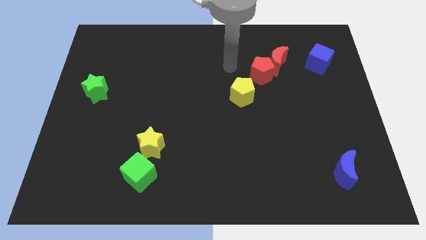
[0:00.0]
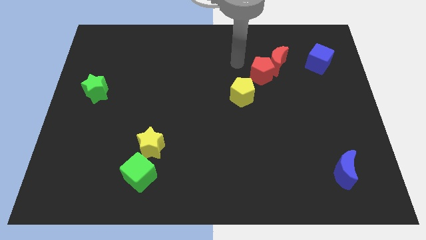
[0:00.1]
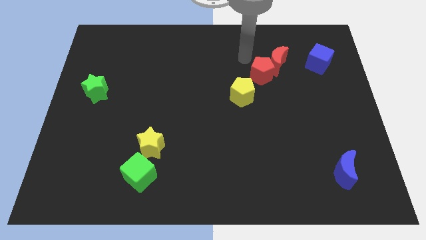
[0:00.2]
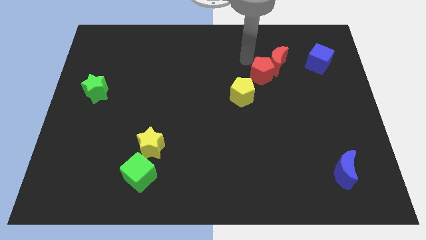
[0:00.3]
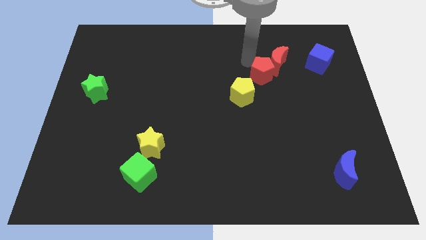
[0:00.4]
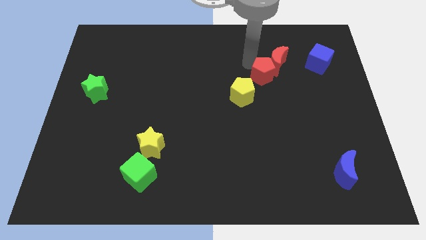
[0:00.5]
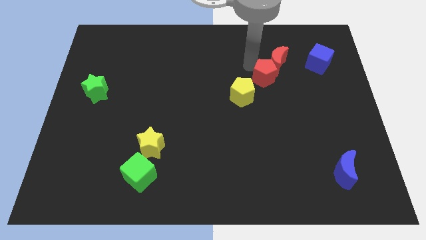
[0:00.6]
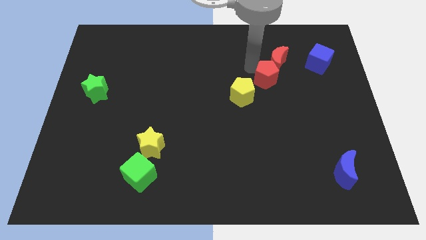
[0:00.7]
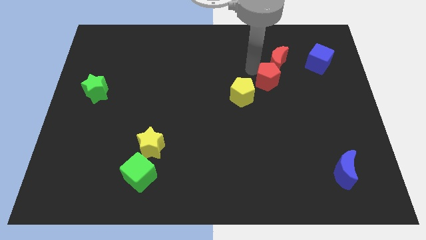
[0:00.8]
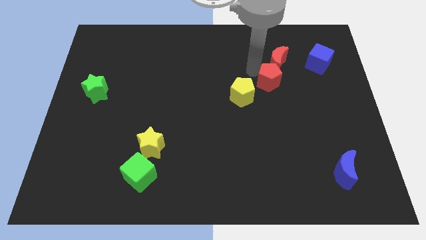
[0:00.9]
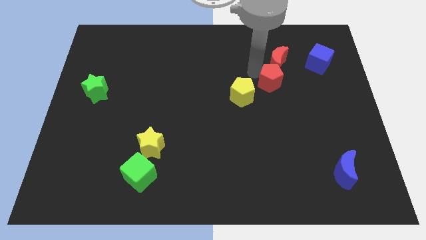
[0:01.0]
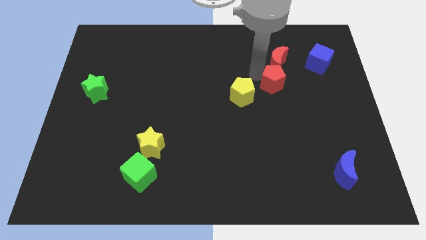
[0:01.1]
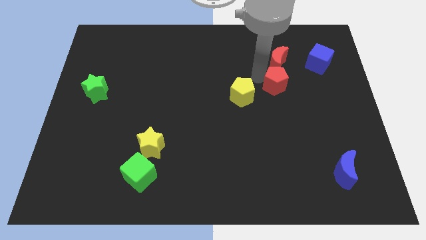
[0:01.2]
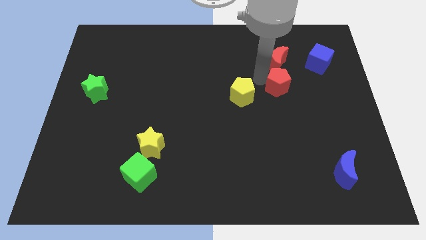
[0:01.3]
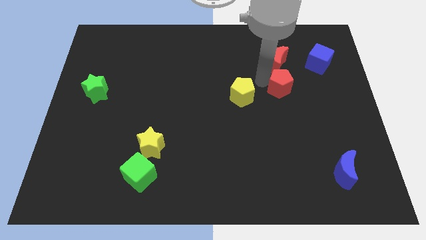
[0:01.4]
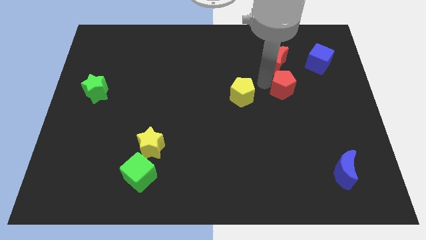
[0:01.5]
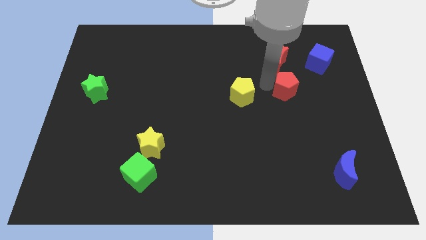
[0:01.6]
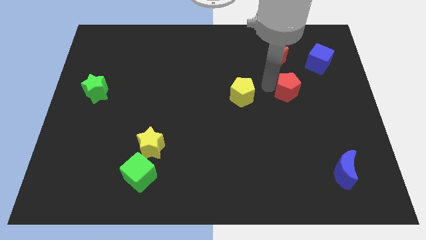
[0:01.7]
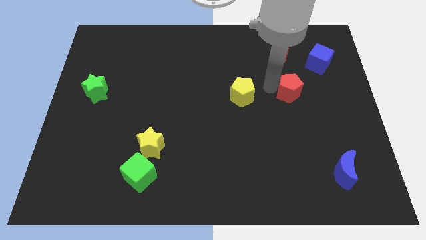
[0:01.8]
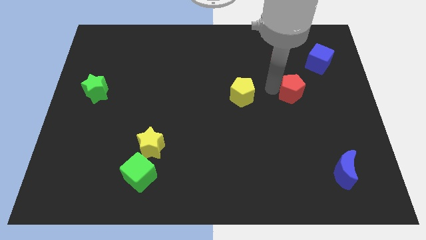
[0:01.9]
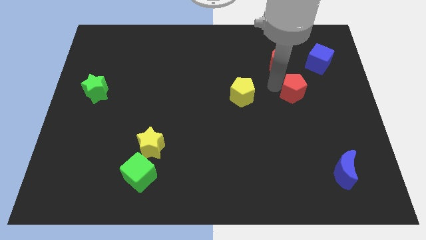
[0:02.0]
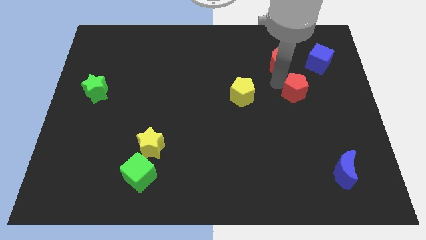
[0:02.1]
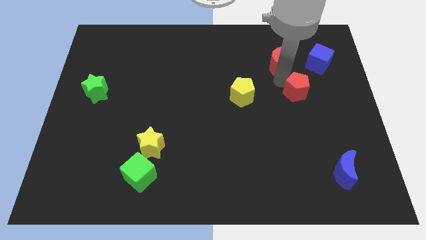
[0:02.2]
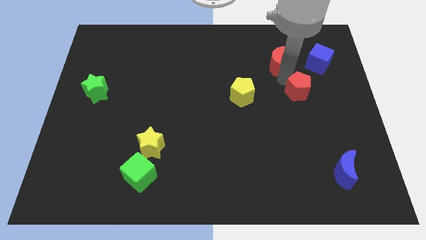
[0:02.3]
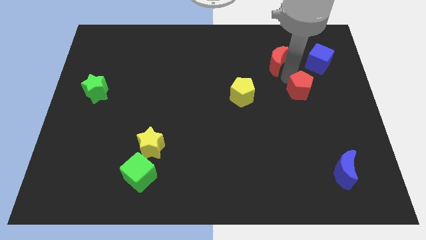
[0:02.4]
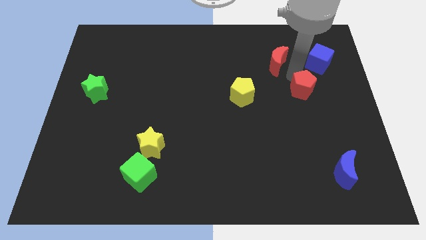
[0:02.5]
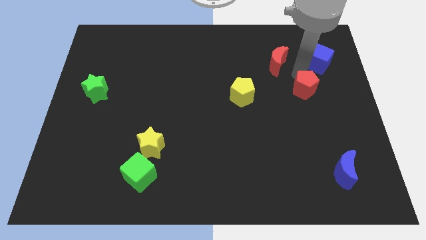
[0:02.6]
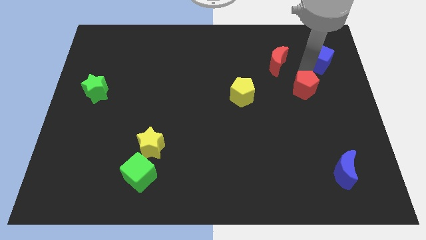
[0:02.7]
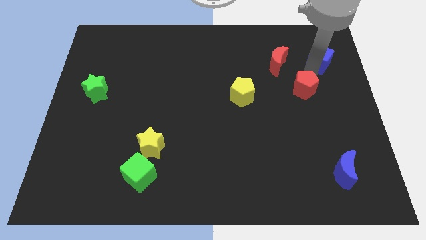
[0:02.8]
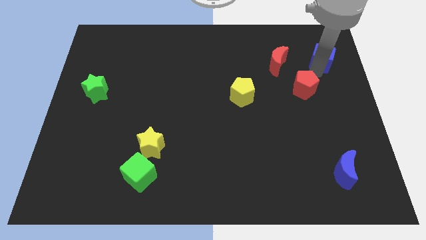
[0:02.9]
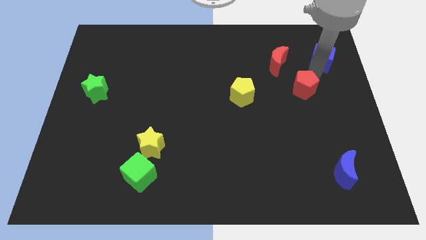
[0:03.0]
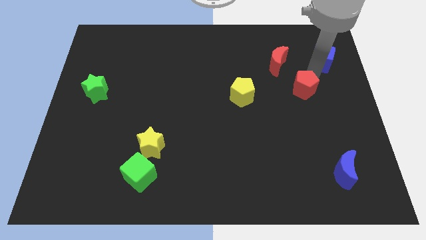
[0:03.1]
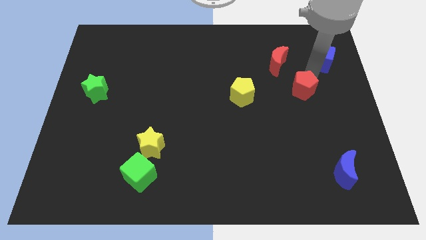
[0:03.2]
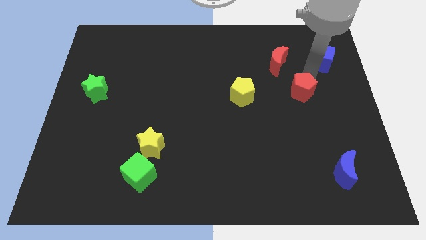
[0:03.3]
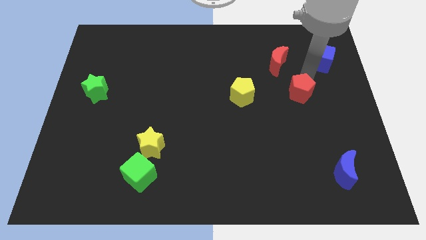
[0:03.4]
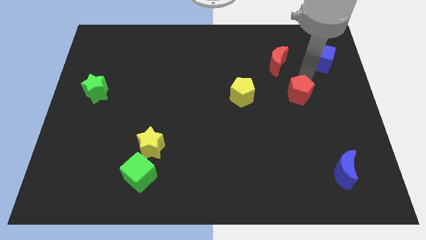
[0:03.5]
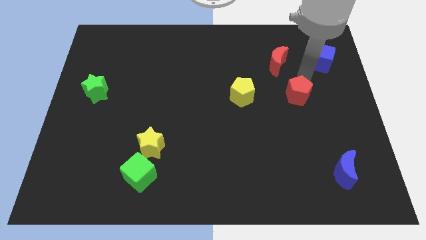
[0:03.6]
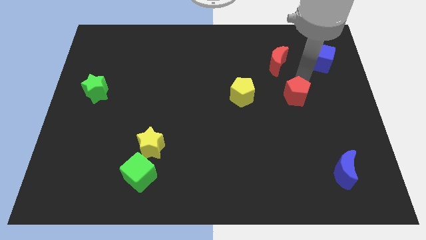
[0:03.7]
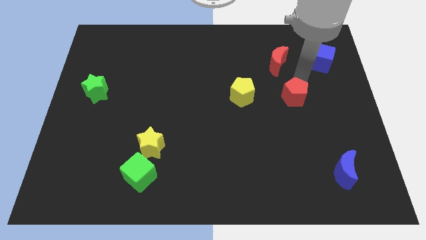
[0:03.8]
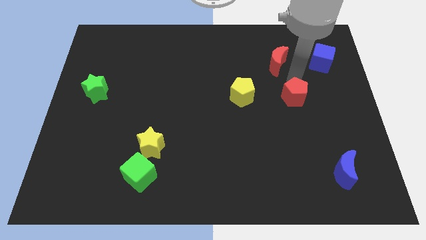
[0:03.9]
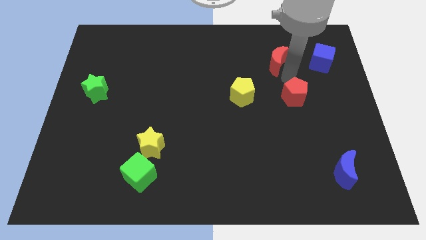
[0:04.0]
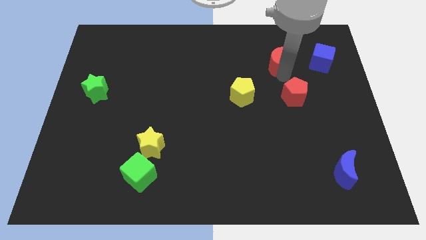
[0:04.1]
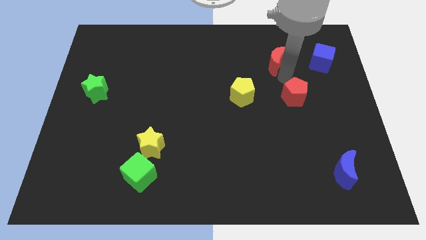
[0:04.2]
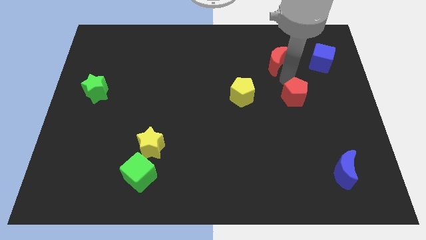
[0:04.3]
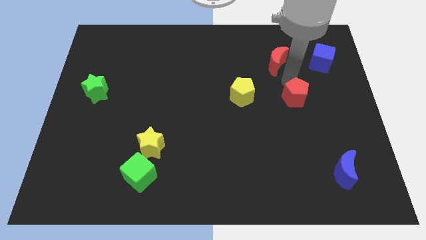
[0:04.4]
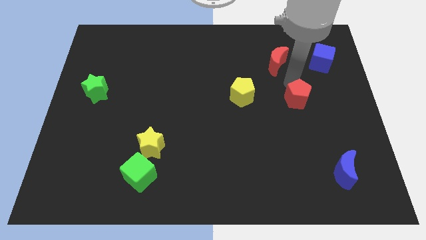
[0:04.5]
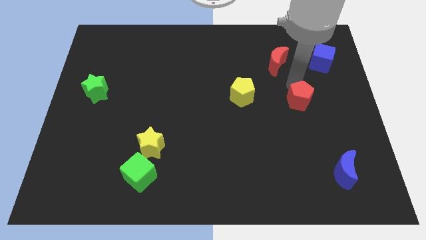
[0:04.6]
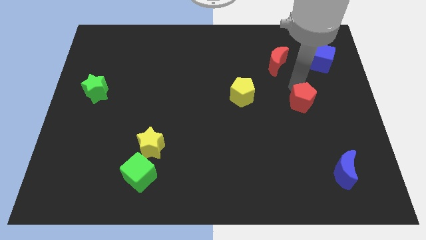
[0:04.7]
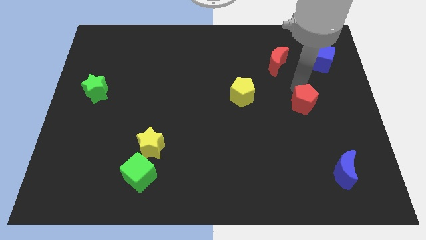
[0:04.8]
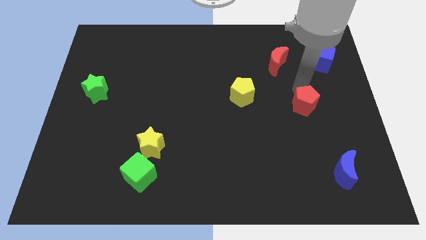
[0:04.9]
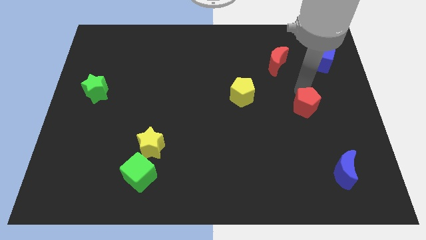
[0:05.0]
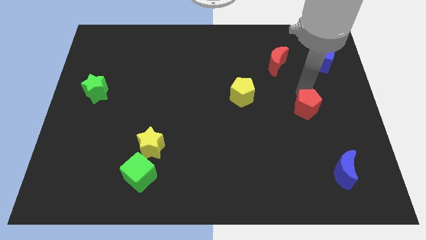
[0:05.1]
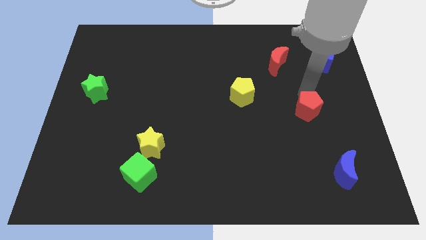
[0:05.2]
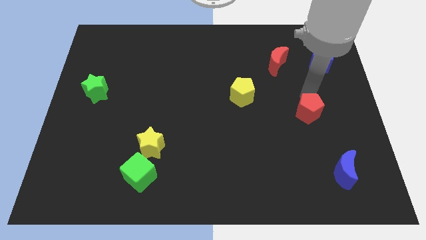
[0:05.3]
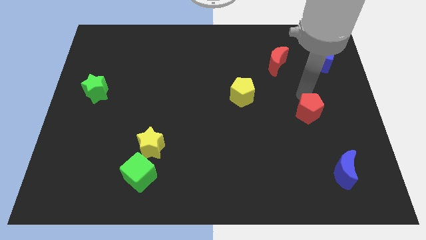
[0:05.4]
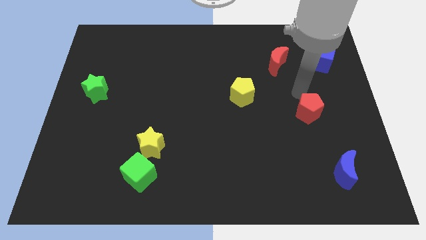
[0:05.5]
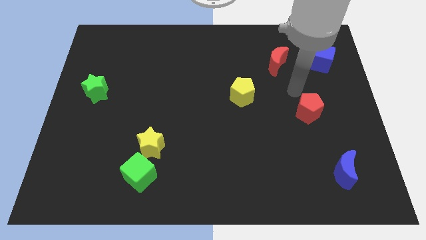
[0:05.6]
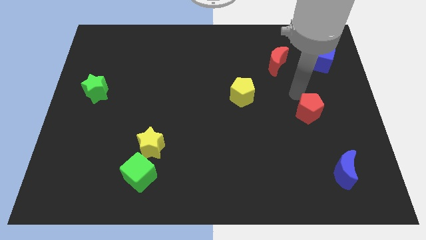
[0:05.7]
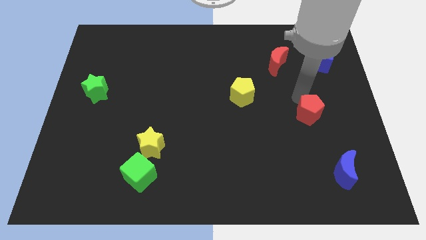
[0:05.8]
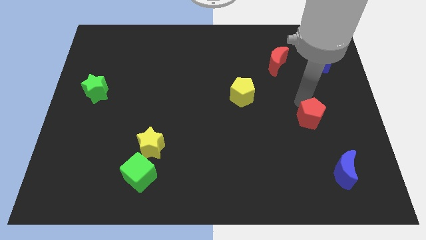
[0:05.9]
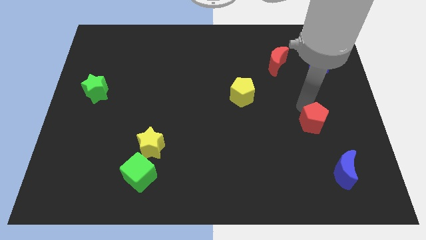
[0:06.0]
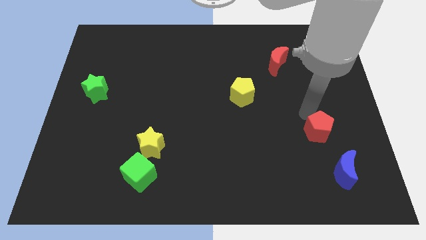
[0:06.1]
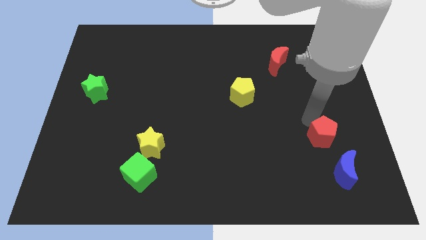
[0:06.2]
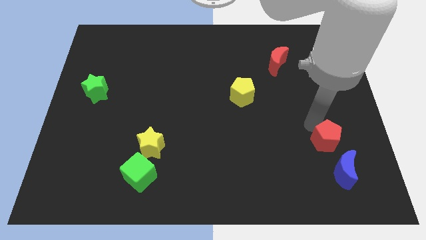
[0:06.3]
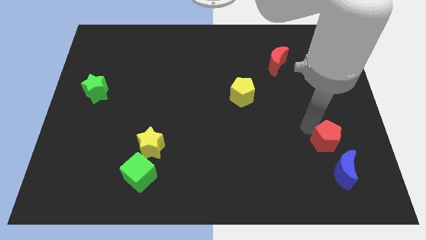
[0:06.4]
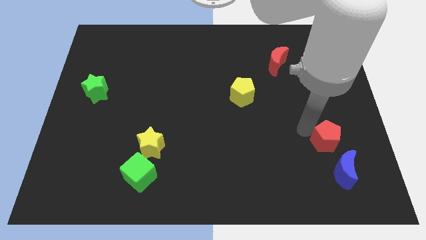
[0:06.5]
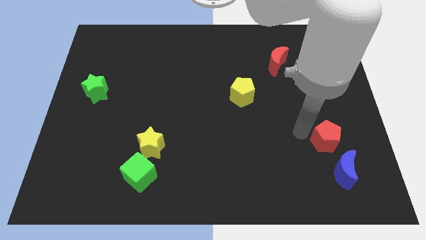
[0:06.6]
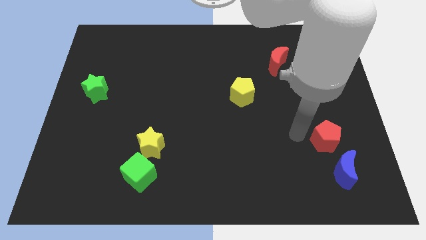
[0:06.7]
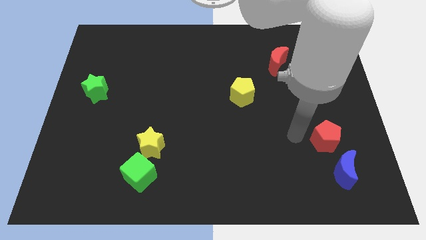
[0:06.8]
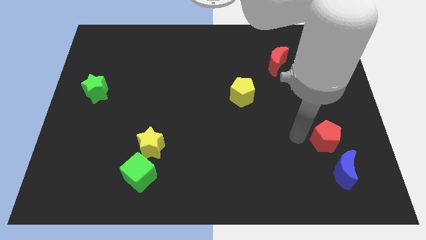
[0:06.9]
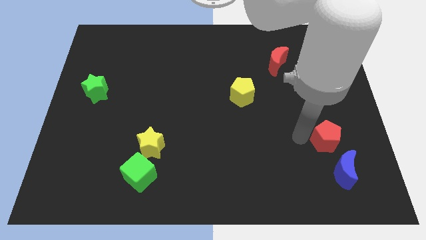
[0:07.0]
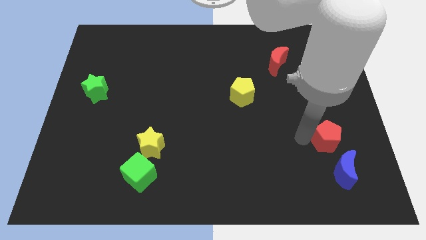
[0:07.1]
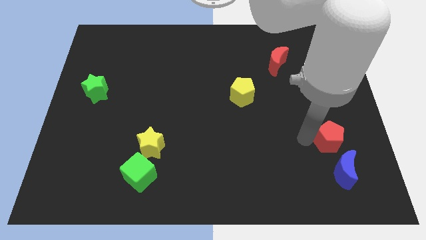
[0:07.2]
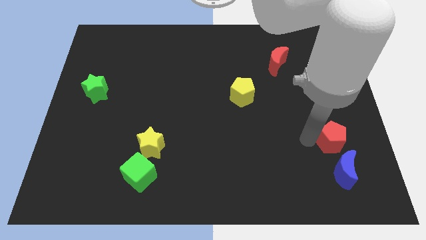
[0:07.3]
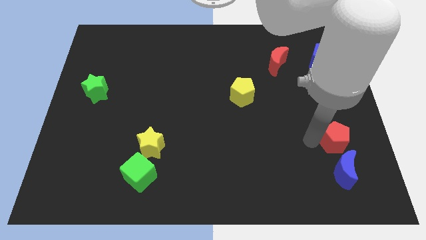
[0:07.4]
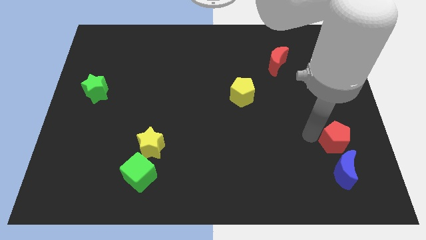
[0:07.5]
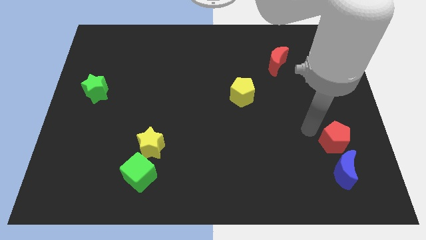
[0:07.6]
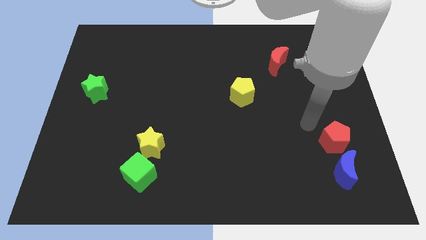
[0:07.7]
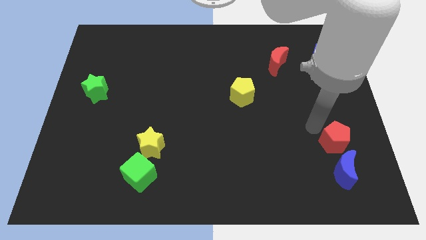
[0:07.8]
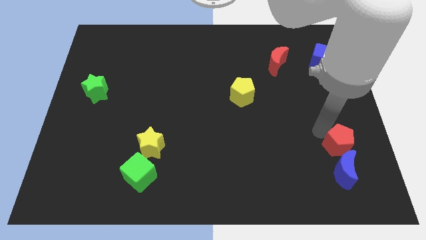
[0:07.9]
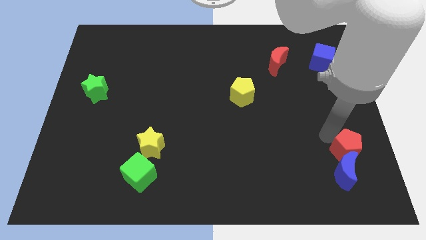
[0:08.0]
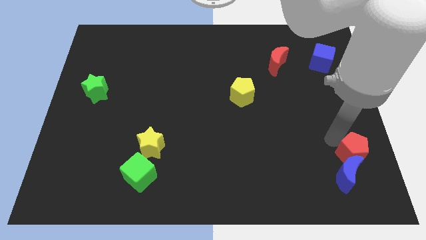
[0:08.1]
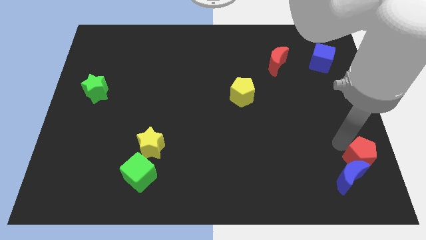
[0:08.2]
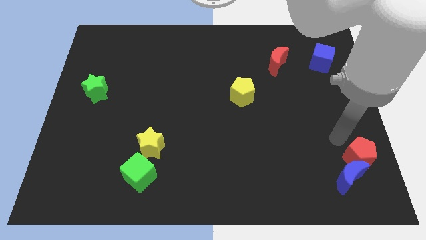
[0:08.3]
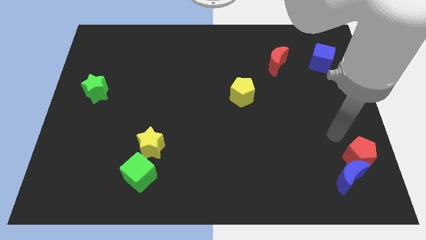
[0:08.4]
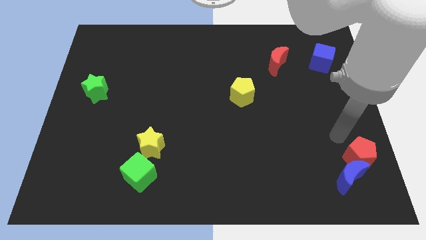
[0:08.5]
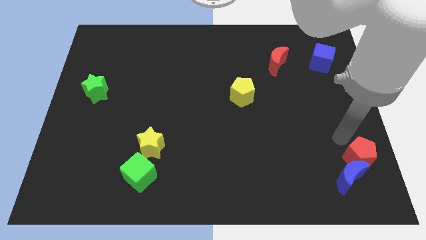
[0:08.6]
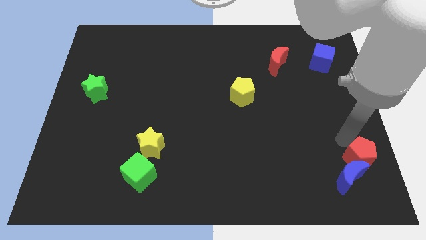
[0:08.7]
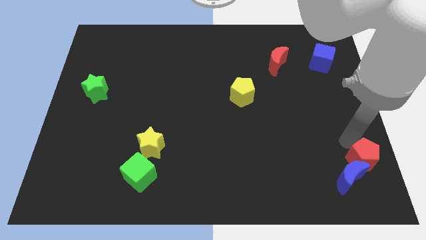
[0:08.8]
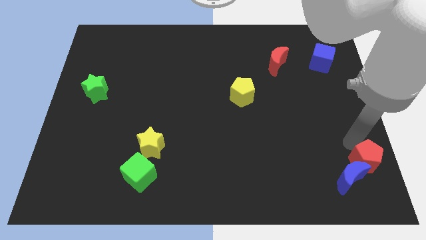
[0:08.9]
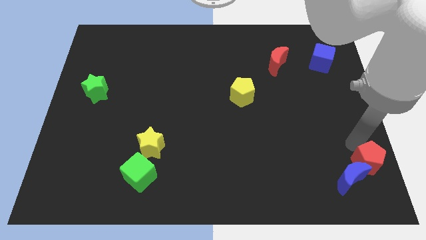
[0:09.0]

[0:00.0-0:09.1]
slide the red pentagon to the lower right corner
